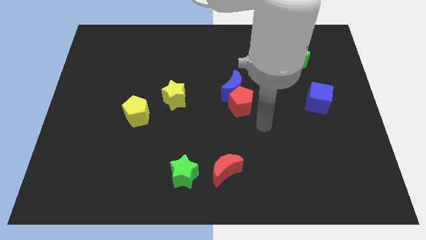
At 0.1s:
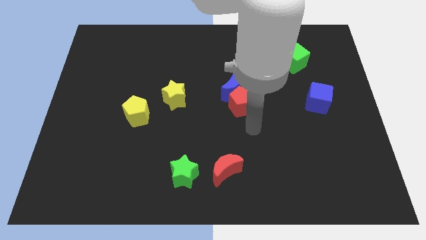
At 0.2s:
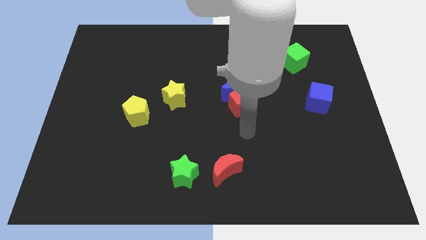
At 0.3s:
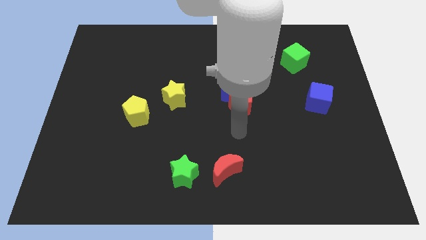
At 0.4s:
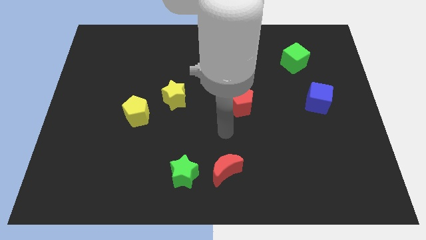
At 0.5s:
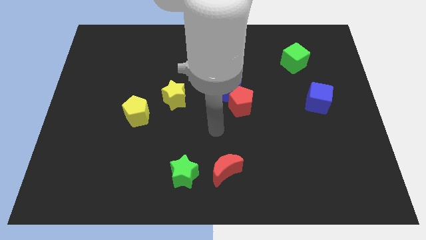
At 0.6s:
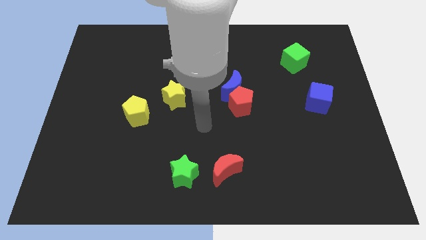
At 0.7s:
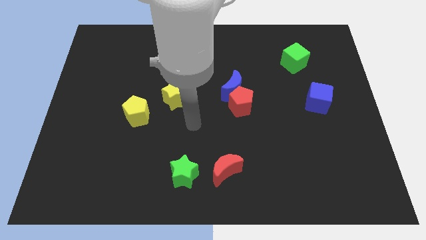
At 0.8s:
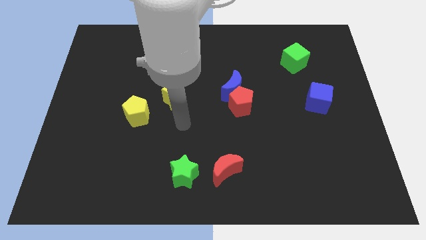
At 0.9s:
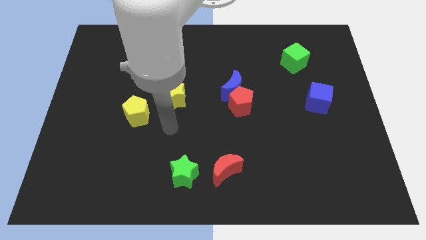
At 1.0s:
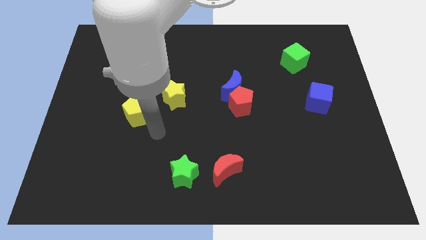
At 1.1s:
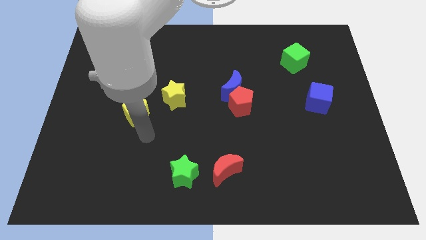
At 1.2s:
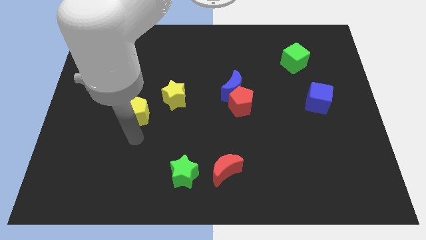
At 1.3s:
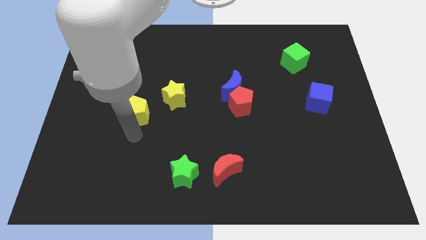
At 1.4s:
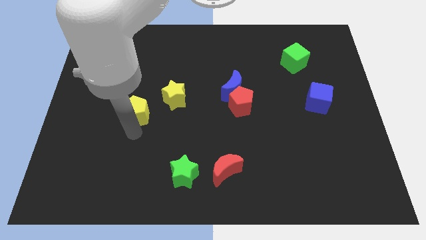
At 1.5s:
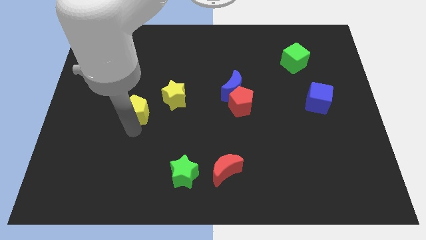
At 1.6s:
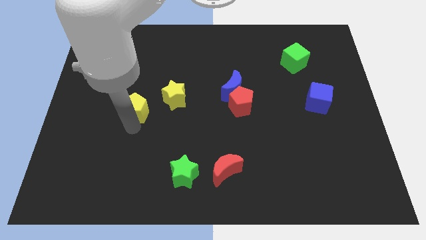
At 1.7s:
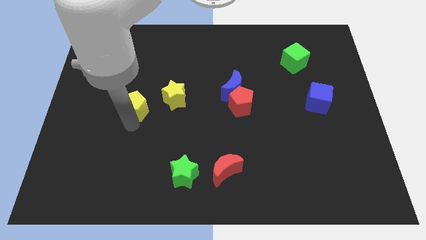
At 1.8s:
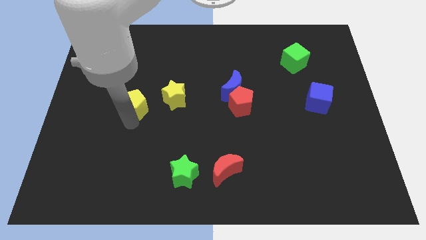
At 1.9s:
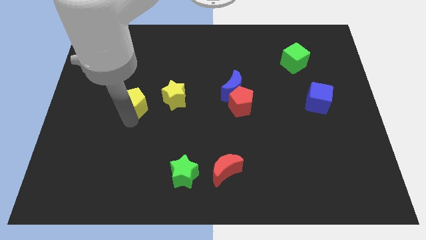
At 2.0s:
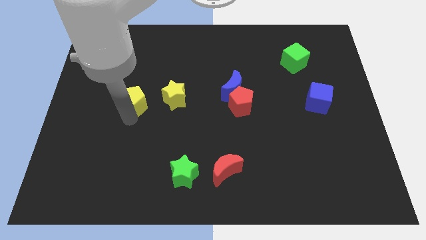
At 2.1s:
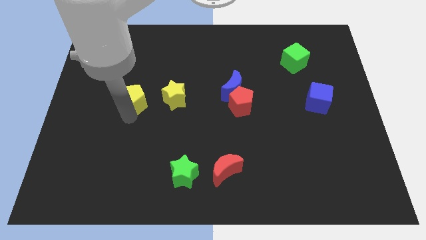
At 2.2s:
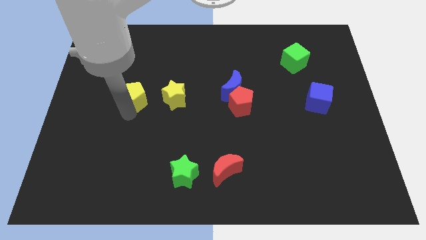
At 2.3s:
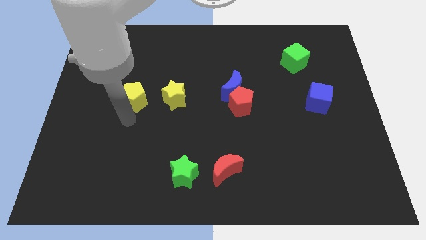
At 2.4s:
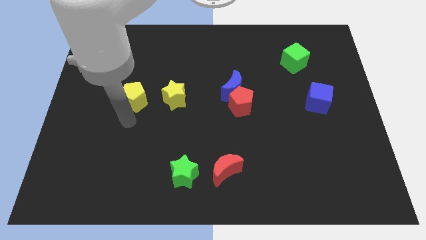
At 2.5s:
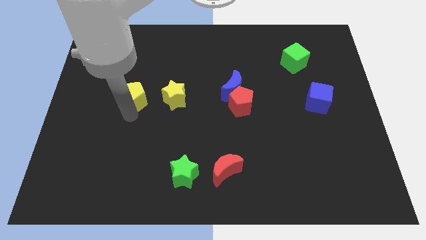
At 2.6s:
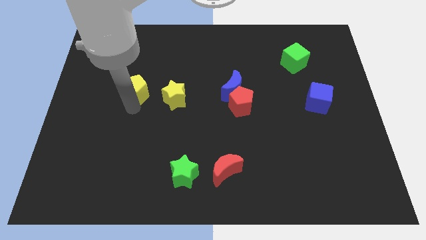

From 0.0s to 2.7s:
move the yellow pentagon a bit upwards

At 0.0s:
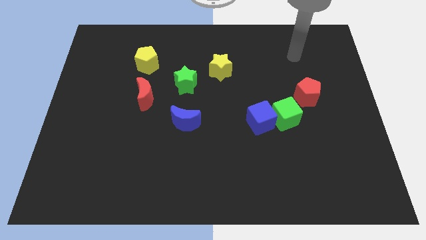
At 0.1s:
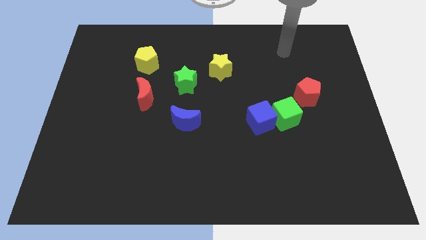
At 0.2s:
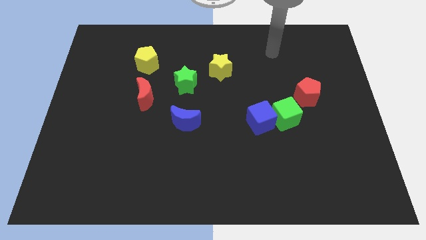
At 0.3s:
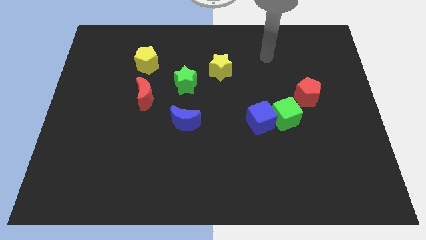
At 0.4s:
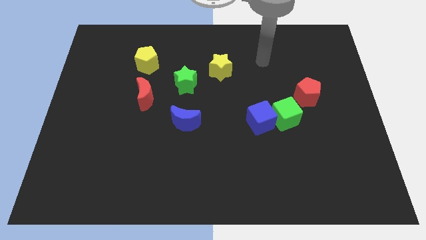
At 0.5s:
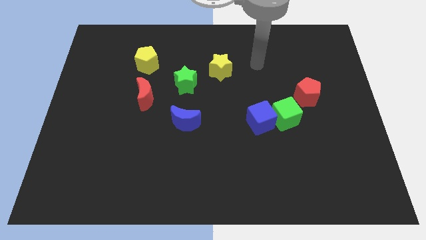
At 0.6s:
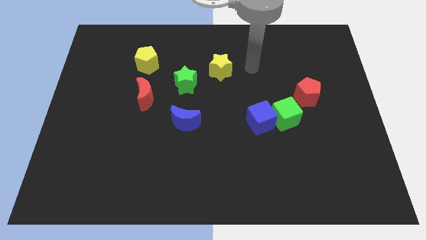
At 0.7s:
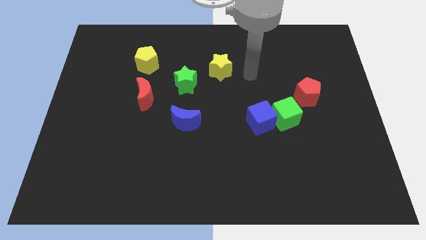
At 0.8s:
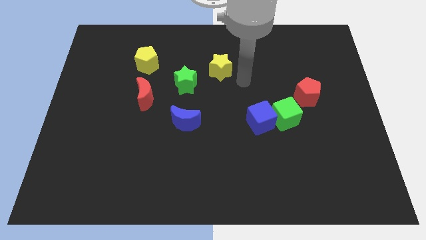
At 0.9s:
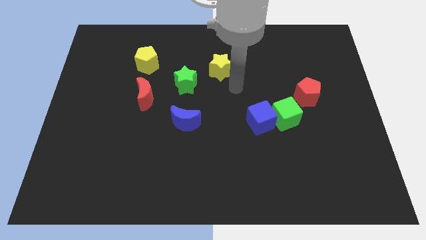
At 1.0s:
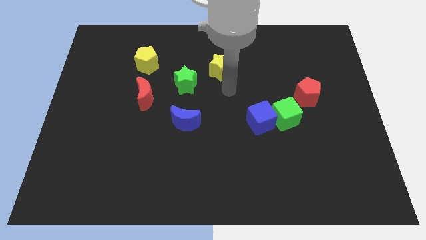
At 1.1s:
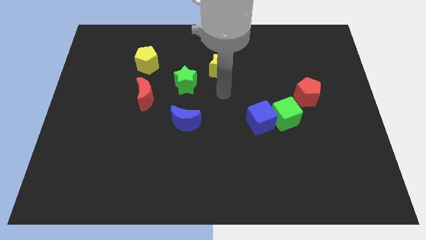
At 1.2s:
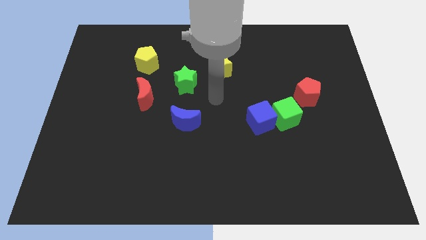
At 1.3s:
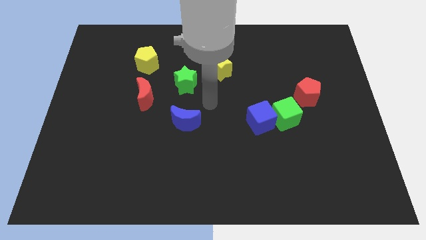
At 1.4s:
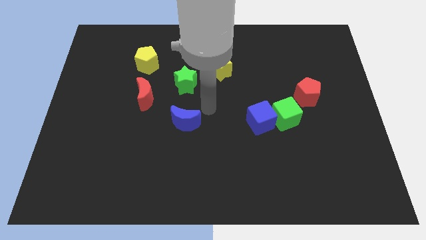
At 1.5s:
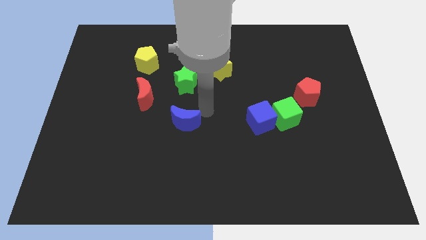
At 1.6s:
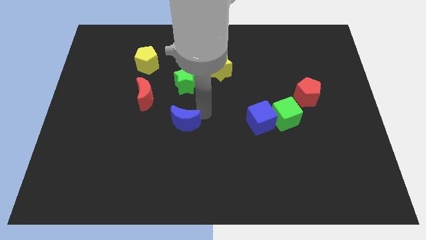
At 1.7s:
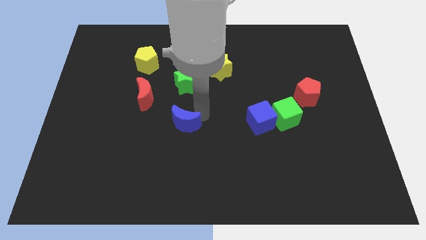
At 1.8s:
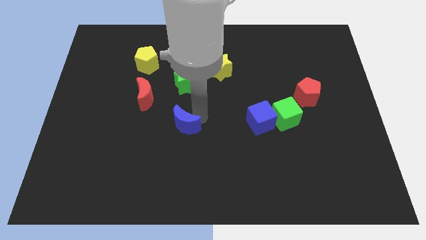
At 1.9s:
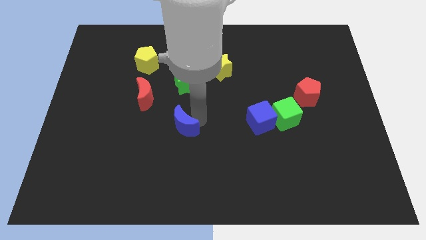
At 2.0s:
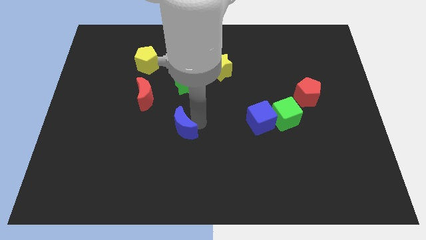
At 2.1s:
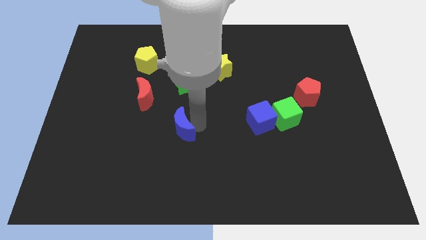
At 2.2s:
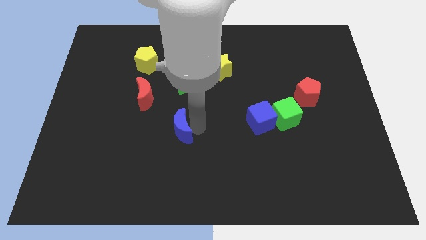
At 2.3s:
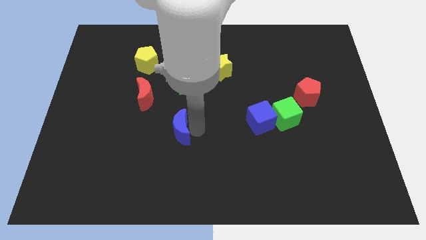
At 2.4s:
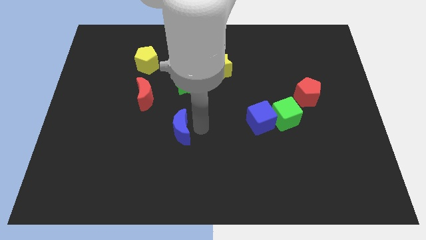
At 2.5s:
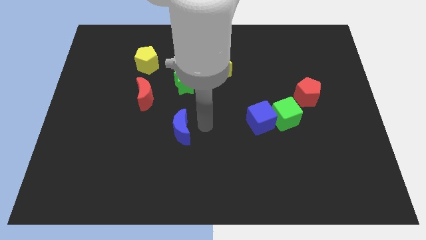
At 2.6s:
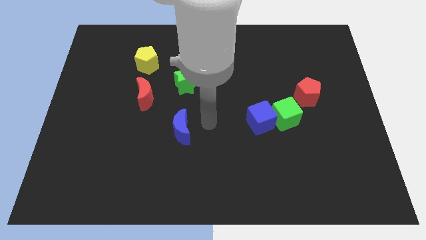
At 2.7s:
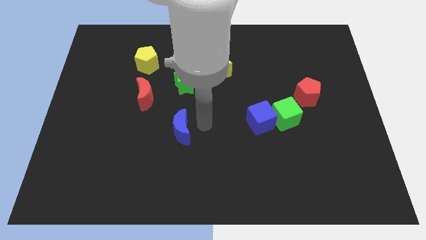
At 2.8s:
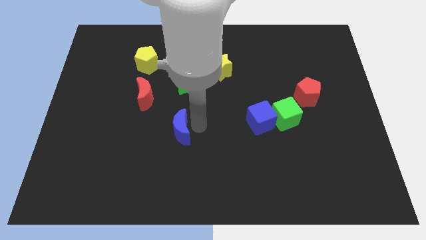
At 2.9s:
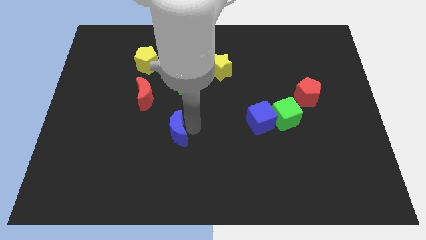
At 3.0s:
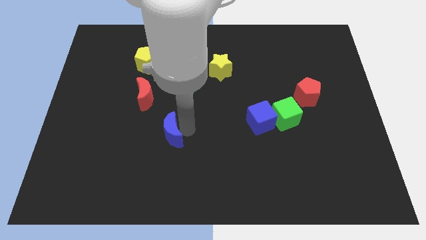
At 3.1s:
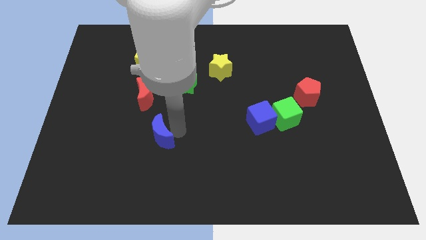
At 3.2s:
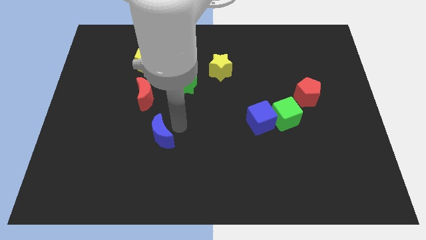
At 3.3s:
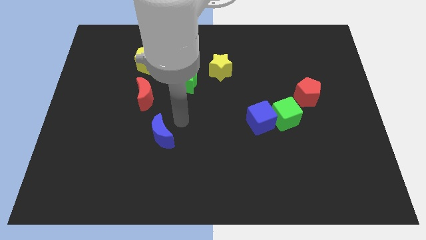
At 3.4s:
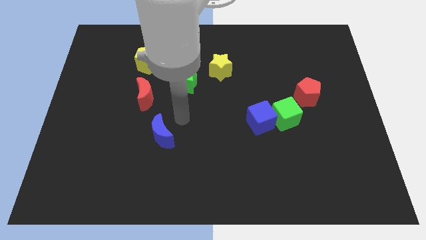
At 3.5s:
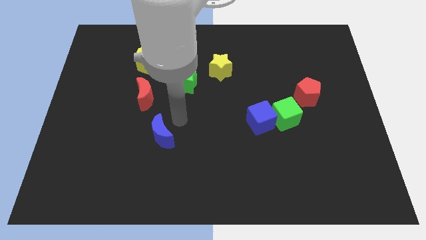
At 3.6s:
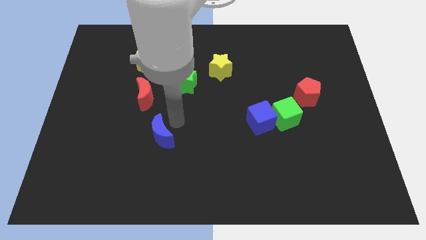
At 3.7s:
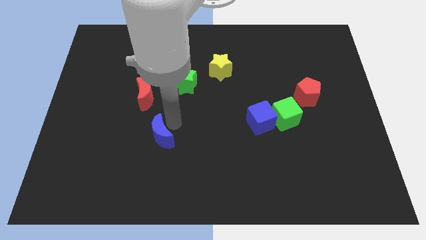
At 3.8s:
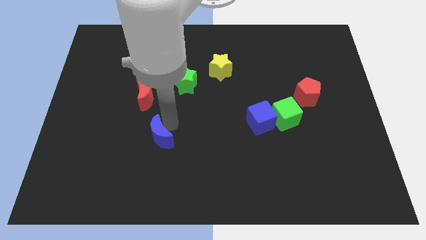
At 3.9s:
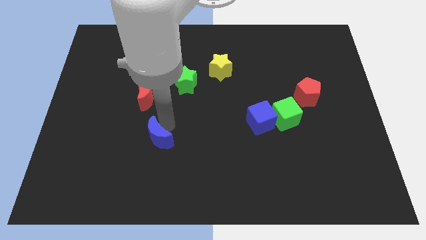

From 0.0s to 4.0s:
slide the blue moon downwards and then to the left a little bit

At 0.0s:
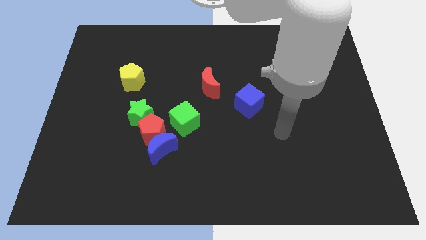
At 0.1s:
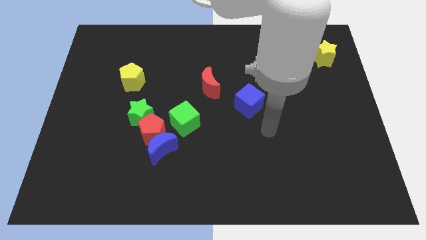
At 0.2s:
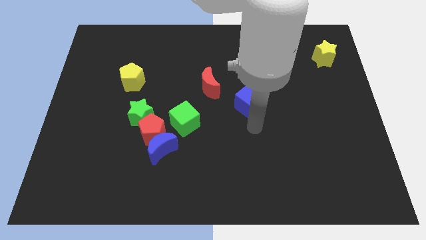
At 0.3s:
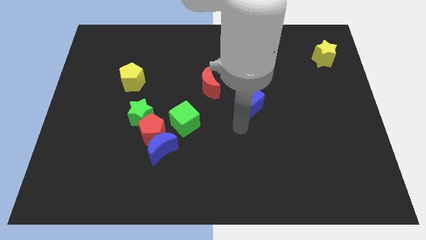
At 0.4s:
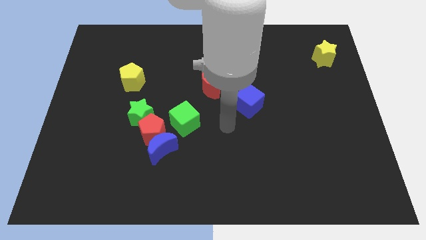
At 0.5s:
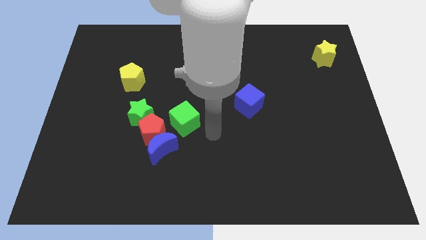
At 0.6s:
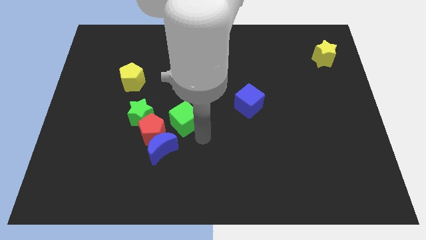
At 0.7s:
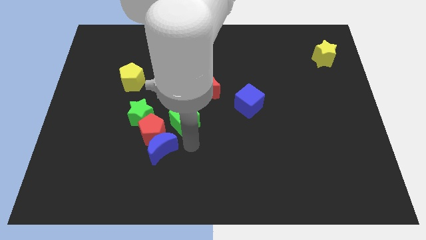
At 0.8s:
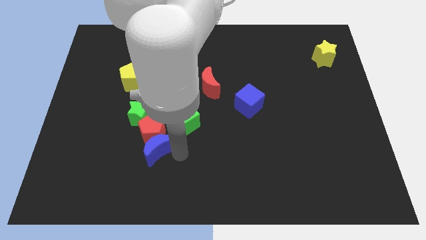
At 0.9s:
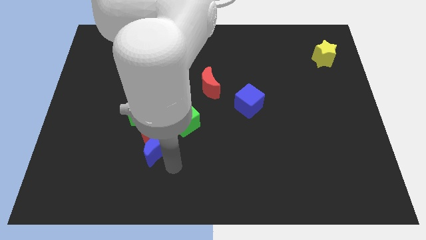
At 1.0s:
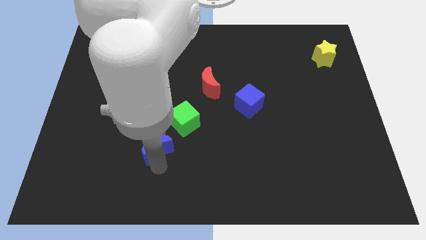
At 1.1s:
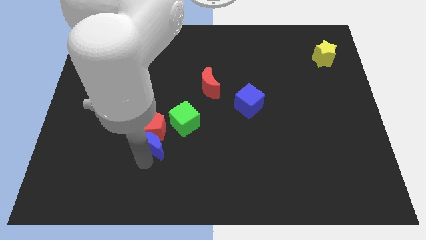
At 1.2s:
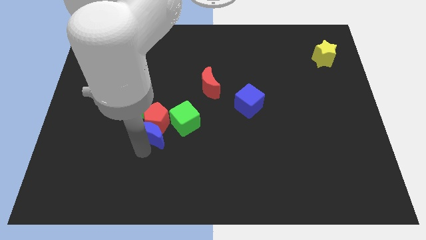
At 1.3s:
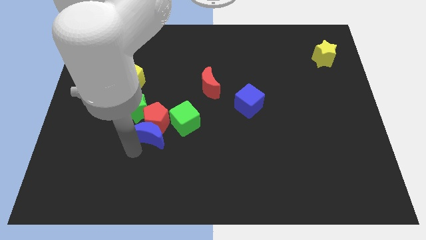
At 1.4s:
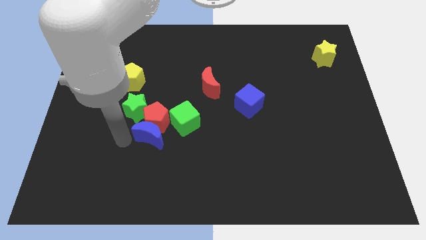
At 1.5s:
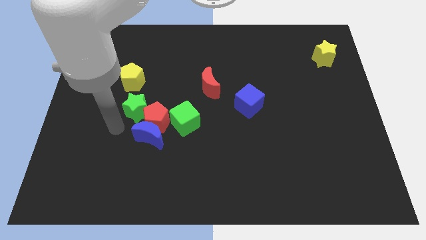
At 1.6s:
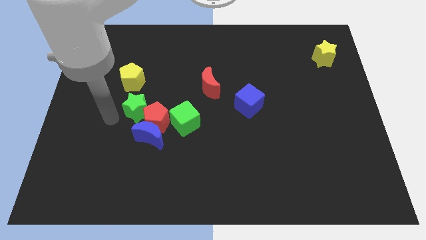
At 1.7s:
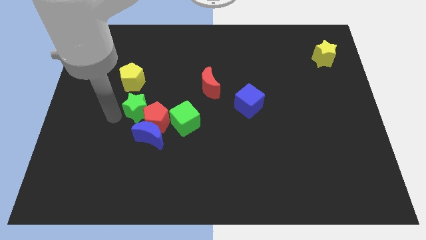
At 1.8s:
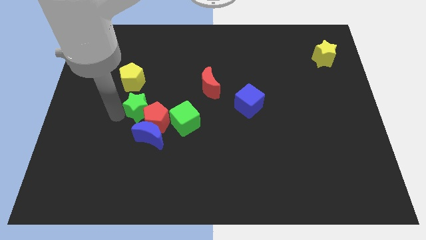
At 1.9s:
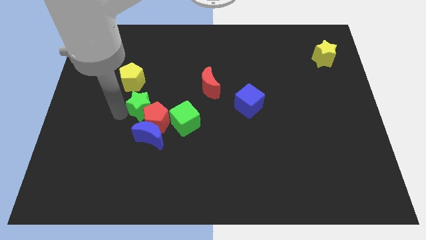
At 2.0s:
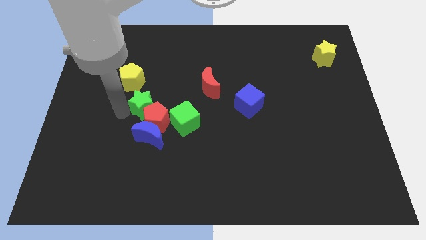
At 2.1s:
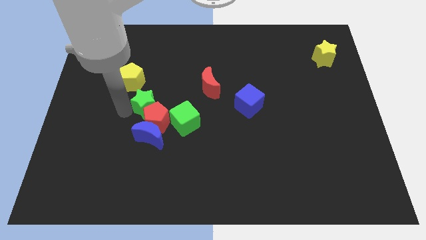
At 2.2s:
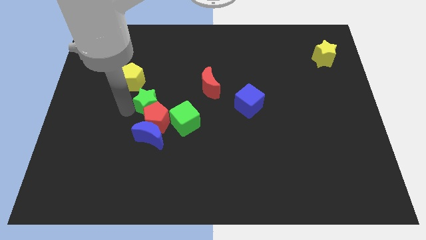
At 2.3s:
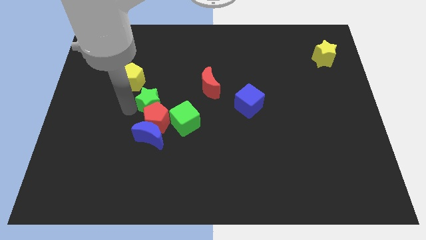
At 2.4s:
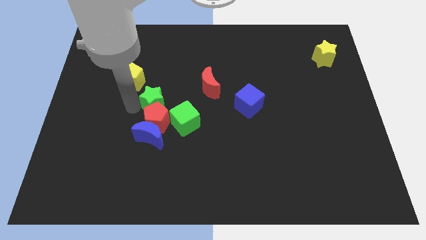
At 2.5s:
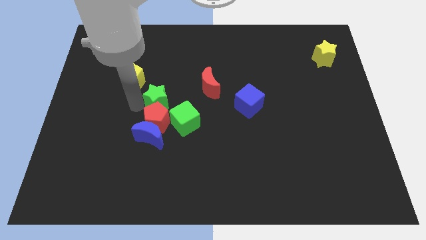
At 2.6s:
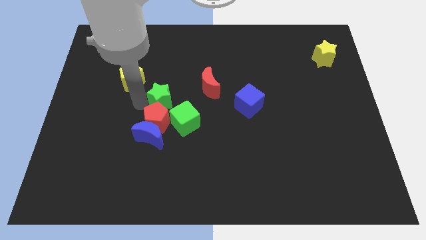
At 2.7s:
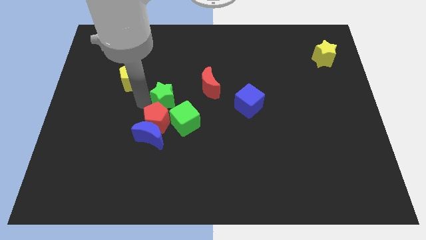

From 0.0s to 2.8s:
slightly move the green star up and right diagonally
